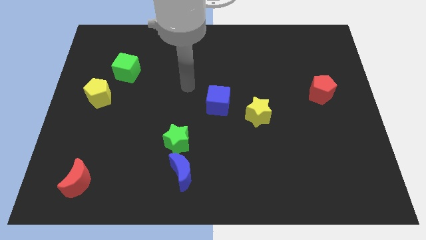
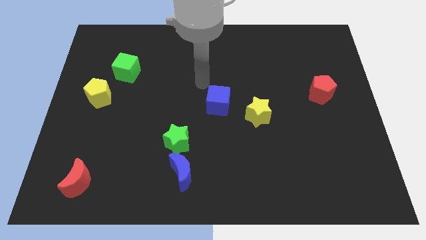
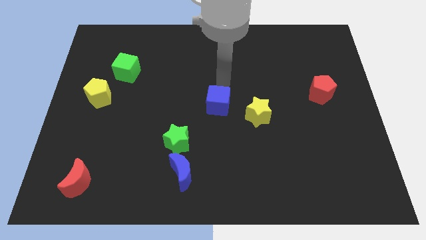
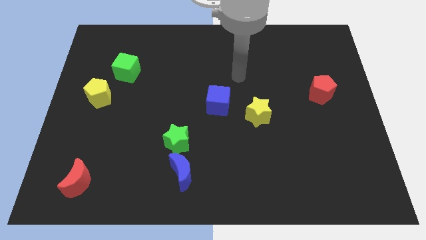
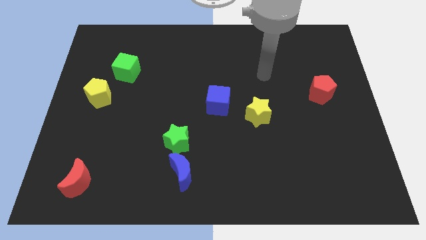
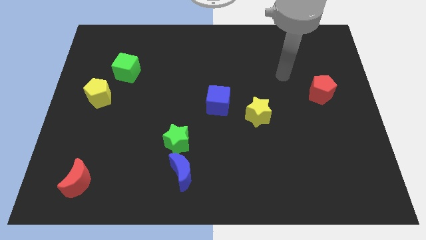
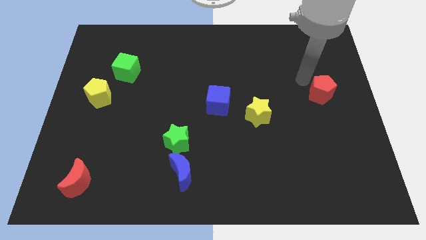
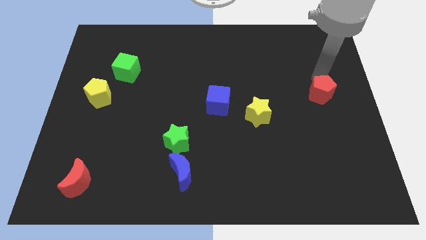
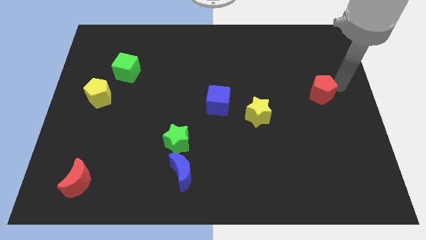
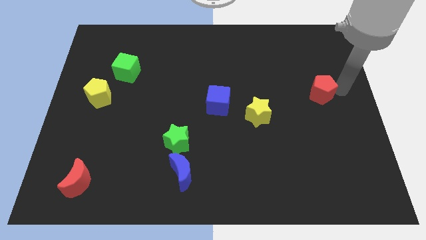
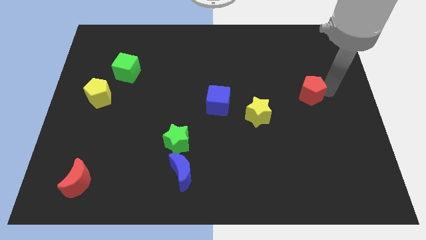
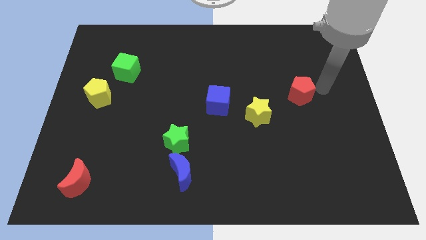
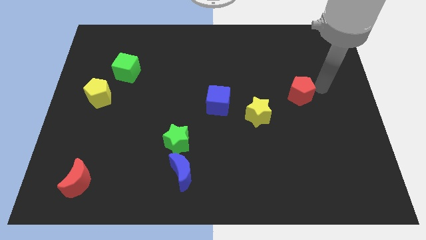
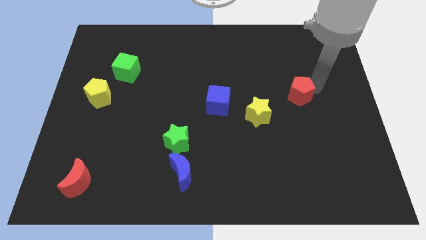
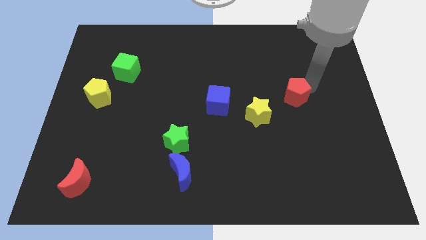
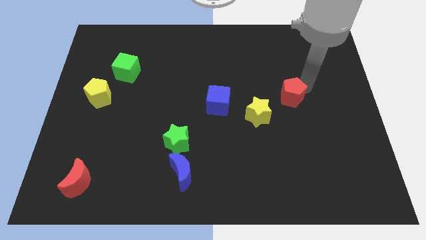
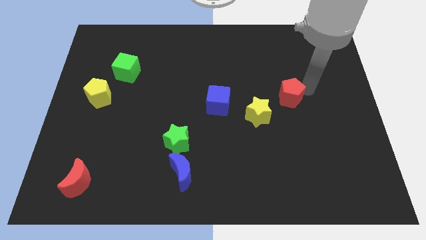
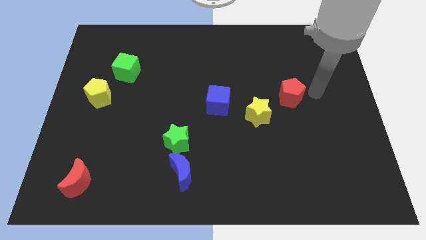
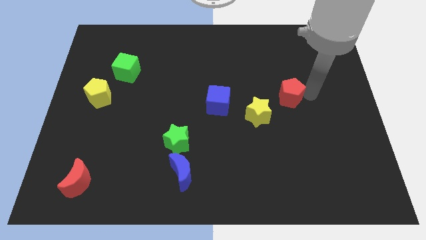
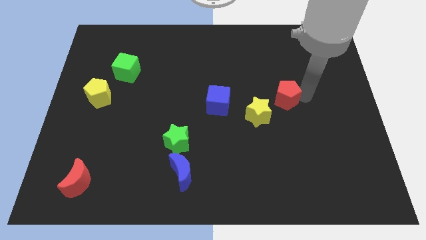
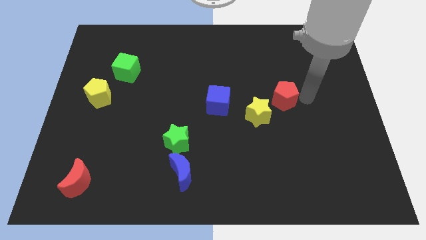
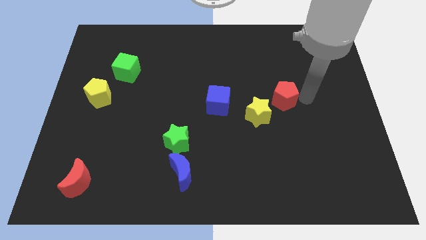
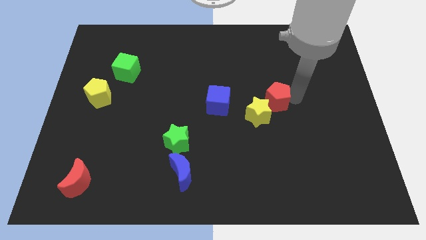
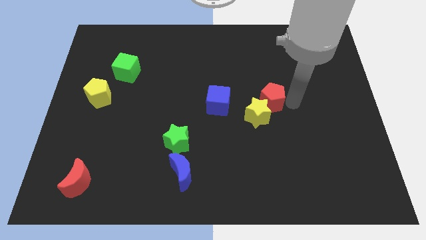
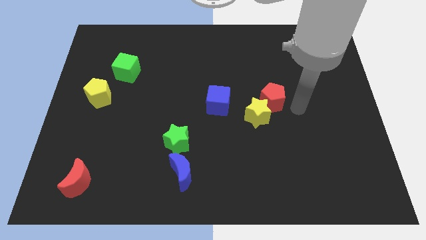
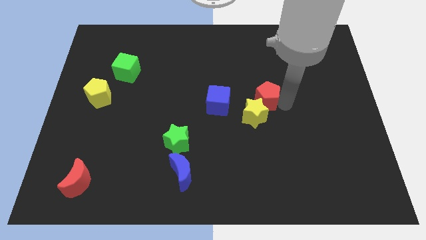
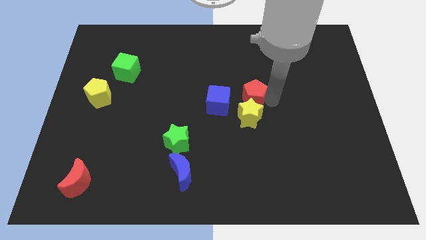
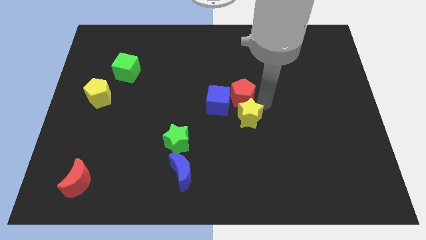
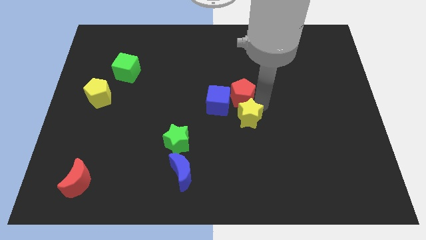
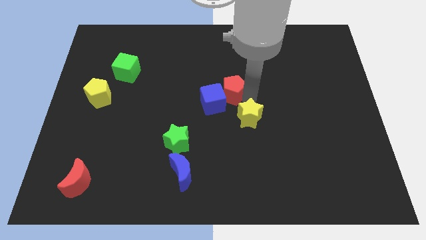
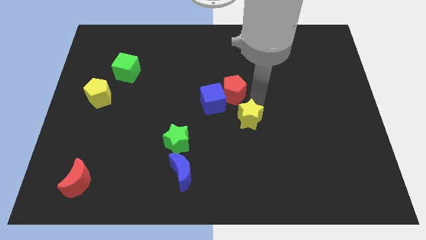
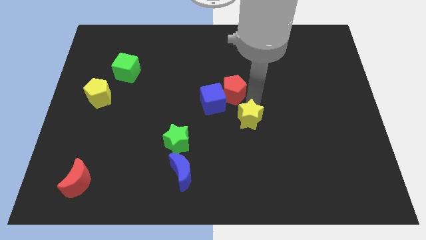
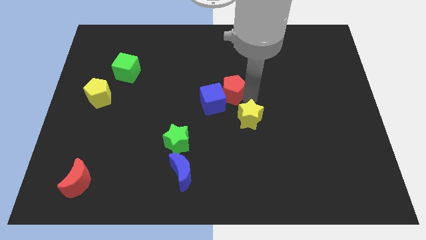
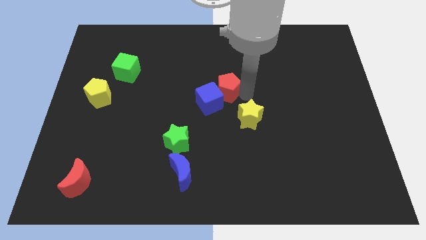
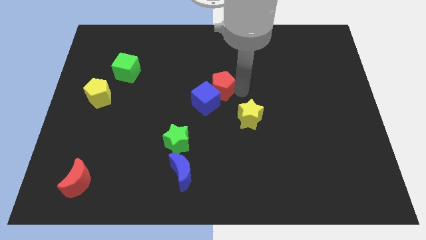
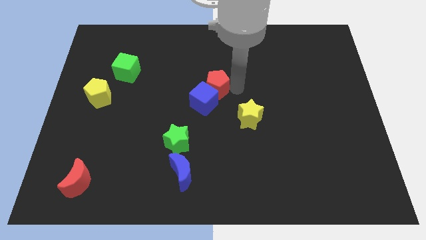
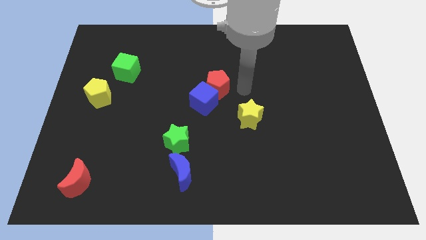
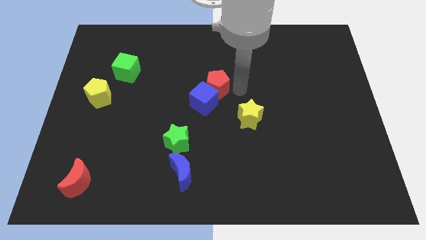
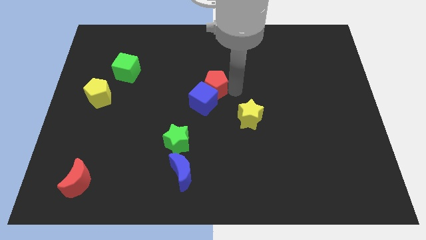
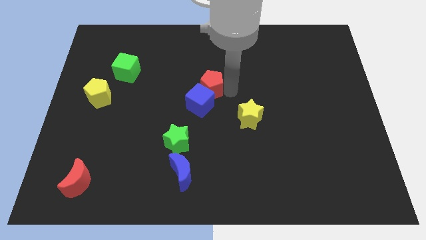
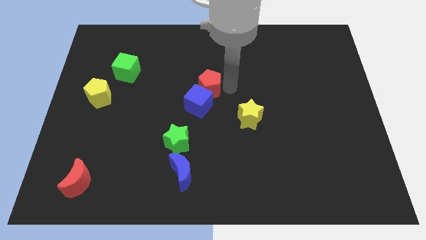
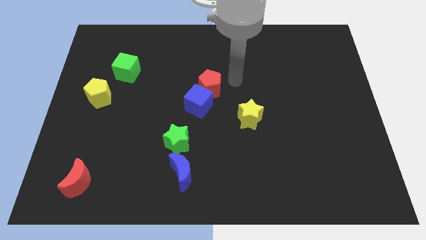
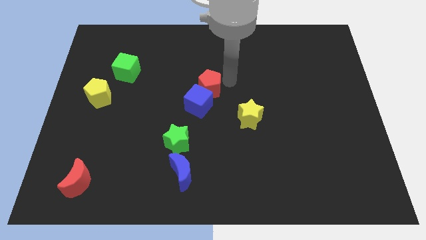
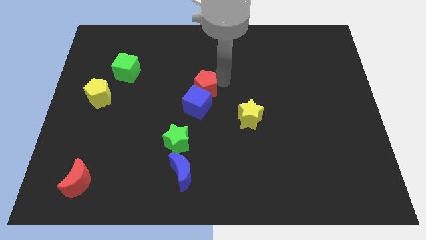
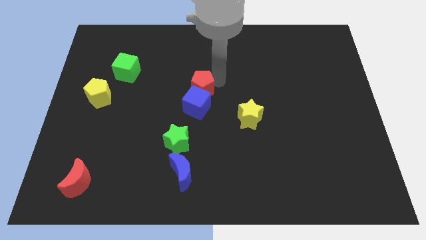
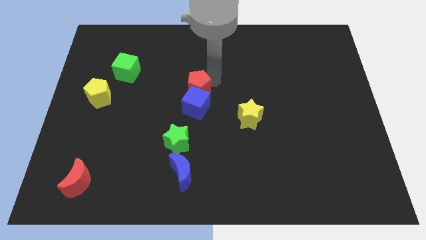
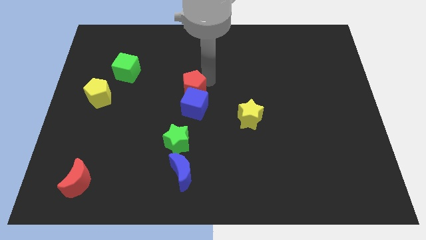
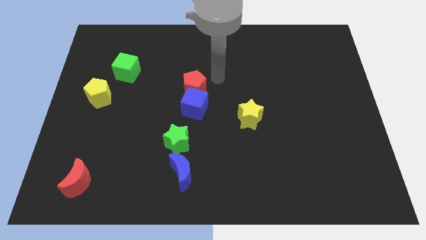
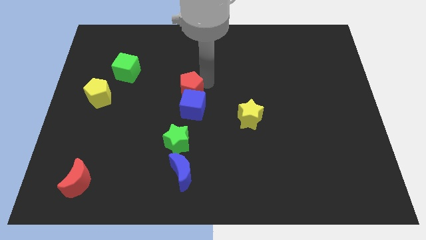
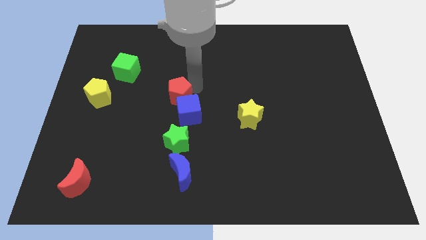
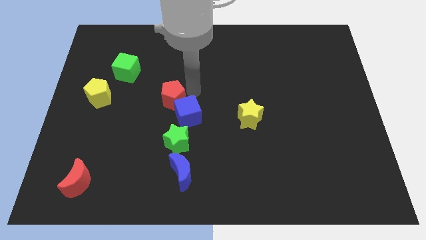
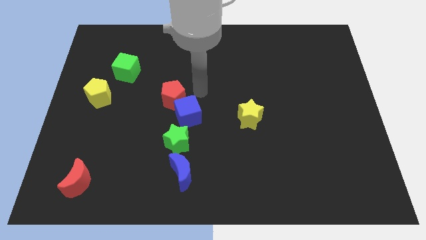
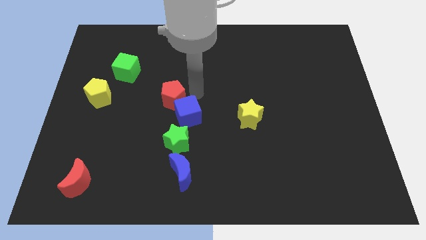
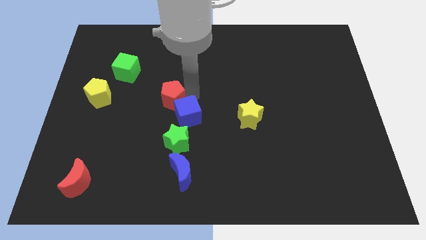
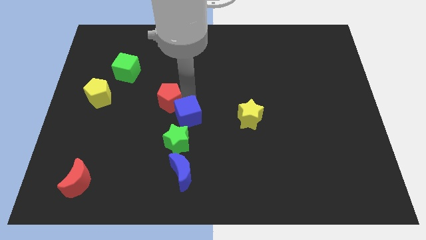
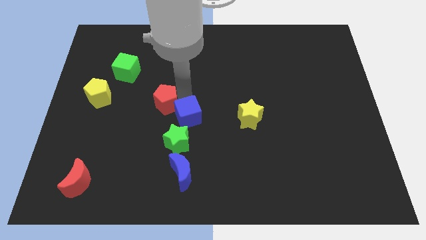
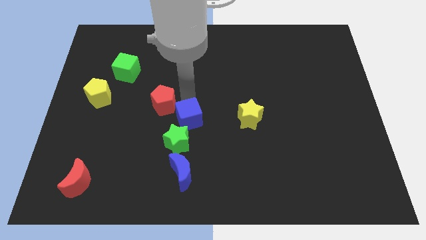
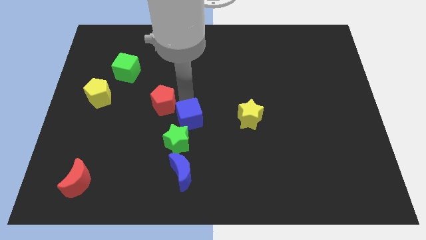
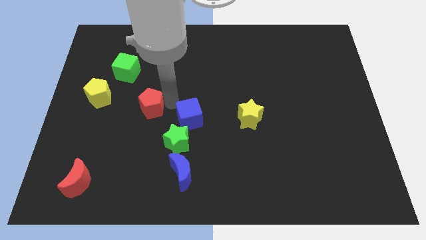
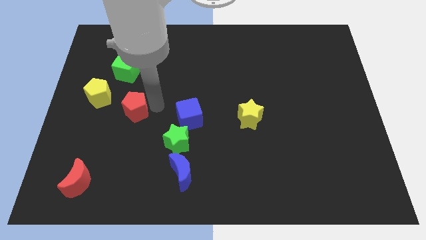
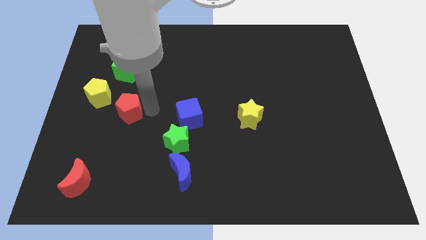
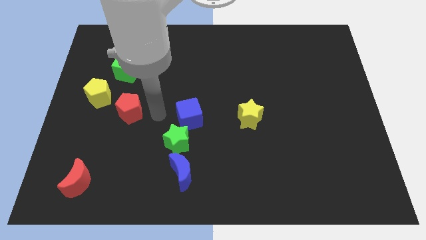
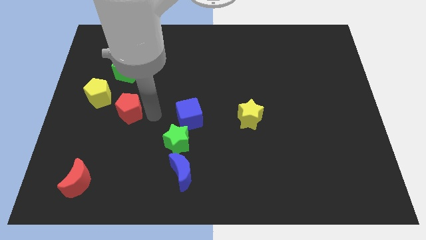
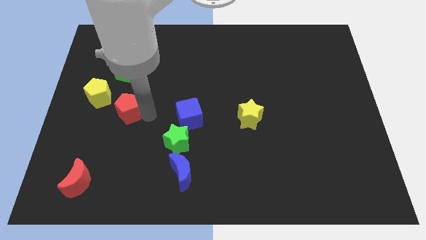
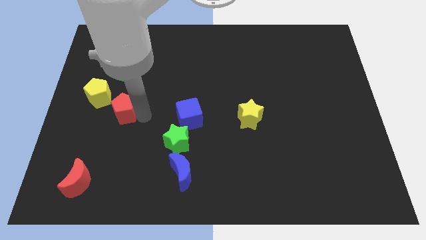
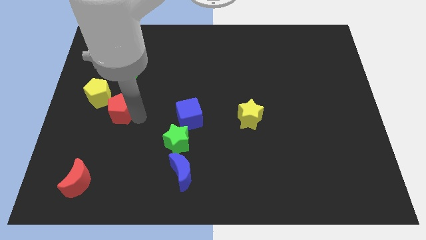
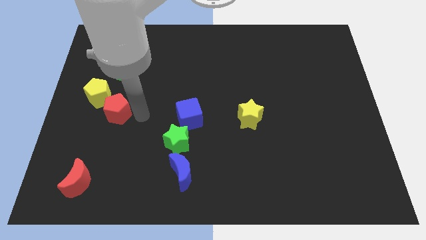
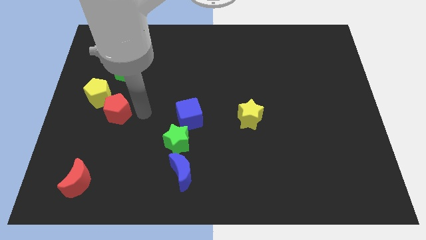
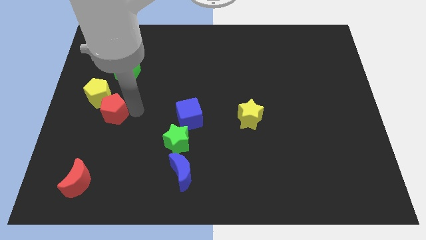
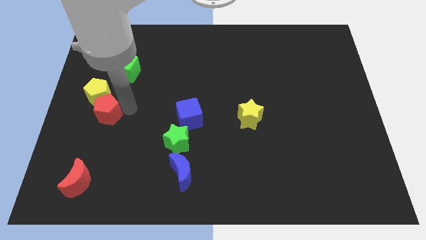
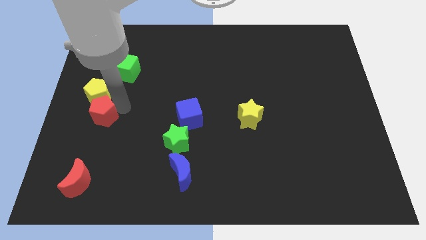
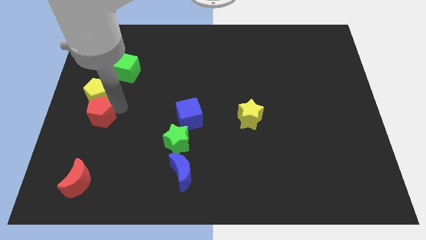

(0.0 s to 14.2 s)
push the red pentagon to the center left
